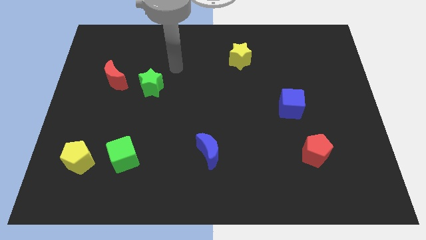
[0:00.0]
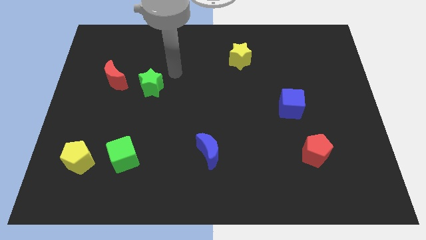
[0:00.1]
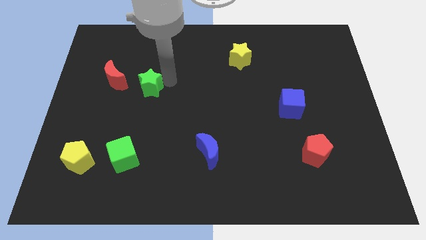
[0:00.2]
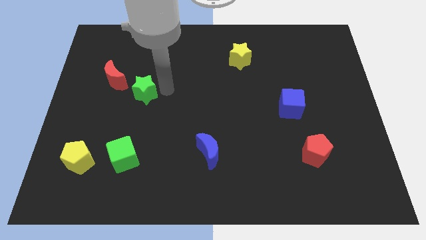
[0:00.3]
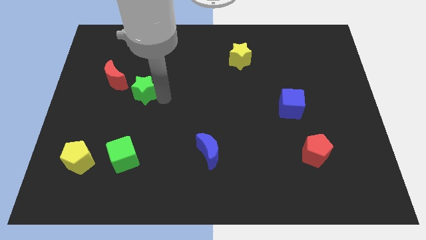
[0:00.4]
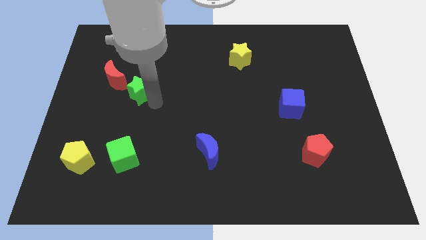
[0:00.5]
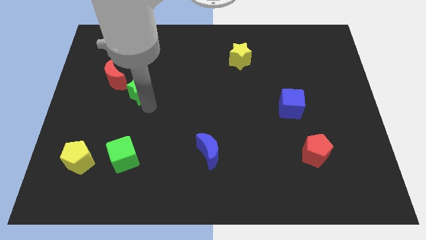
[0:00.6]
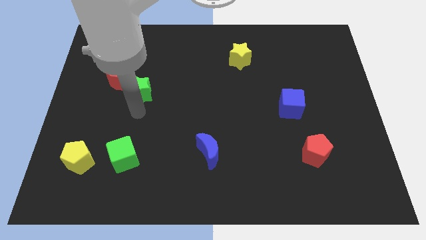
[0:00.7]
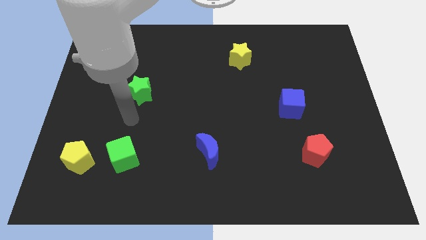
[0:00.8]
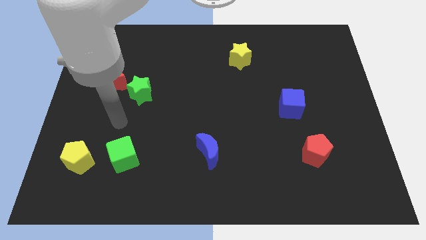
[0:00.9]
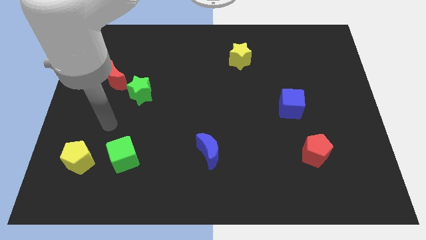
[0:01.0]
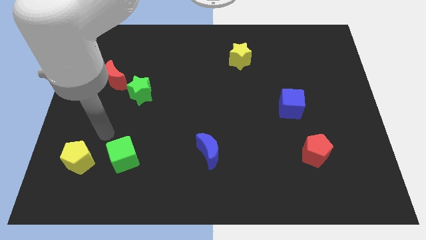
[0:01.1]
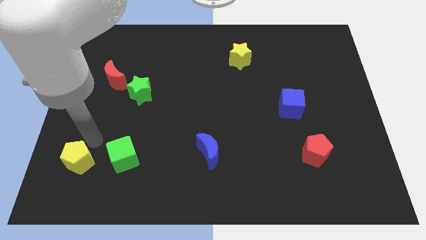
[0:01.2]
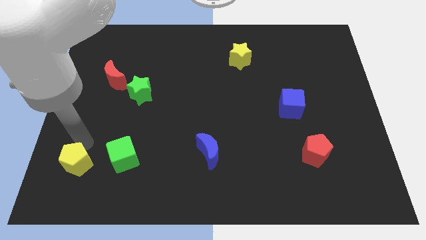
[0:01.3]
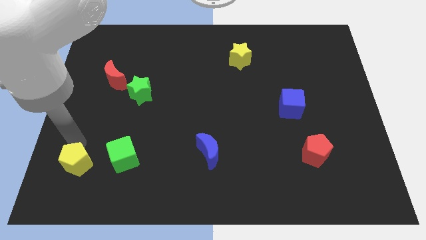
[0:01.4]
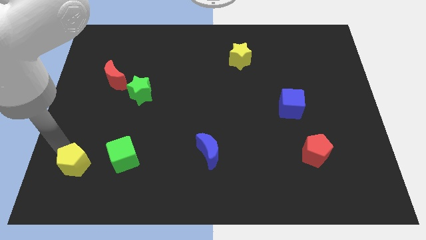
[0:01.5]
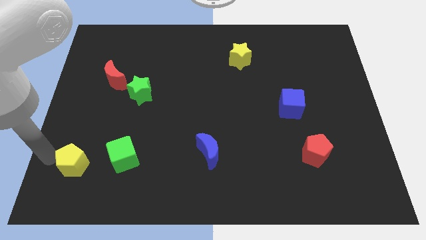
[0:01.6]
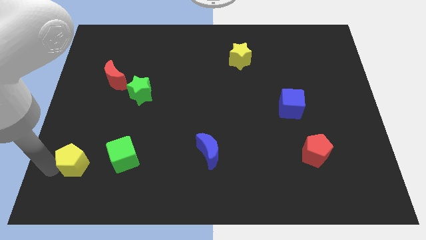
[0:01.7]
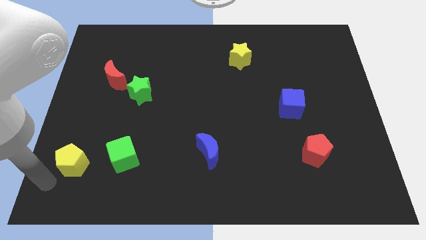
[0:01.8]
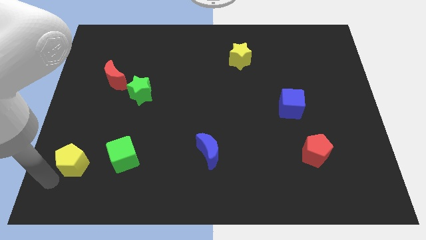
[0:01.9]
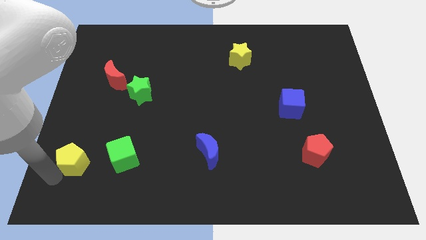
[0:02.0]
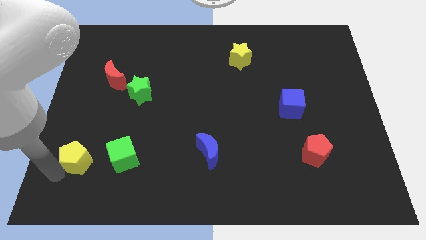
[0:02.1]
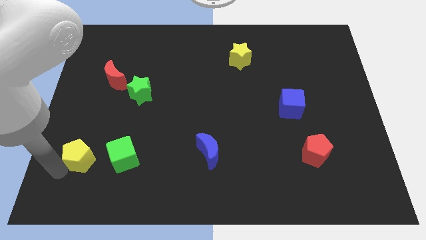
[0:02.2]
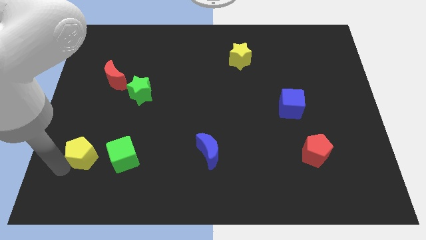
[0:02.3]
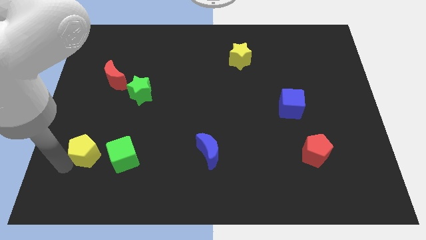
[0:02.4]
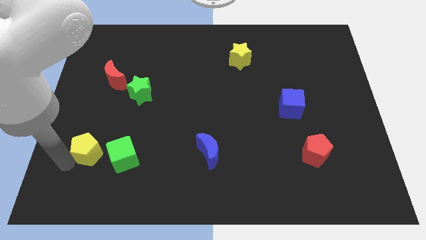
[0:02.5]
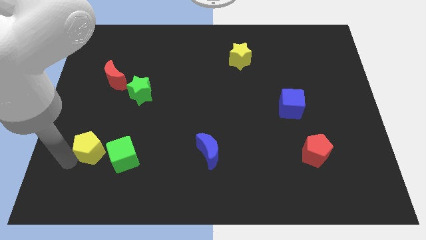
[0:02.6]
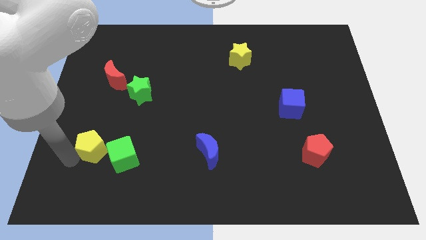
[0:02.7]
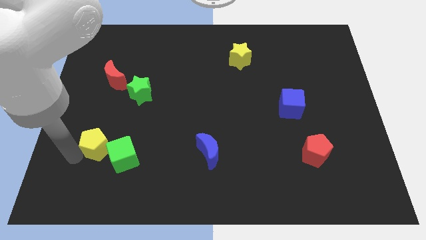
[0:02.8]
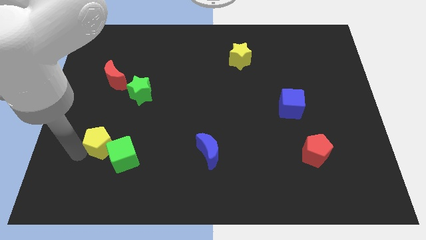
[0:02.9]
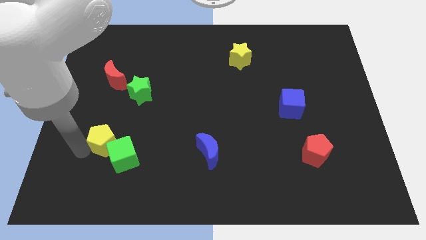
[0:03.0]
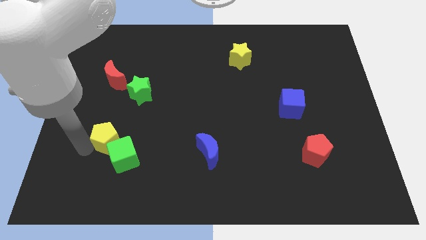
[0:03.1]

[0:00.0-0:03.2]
move the yellow pentagon diagonally up and to the right a little

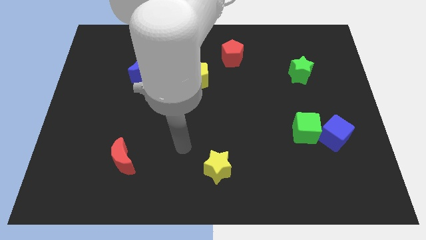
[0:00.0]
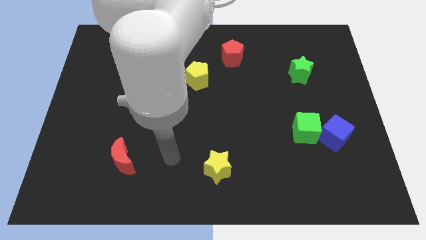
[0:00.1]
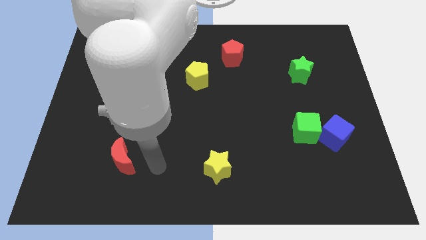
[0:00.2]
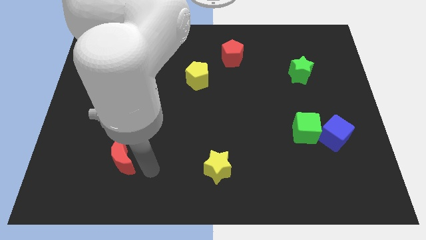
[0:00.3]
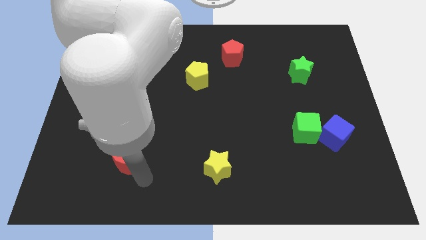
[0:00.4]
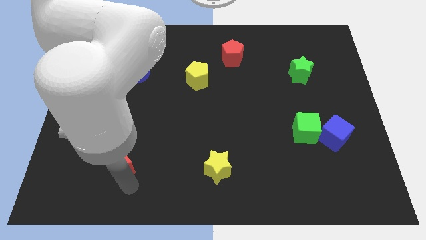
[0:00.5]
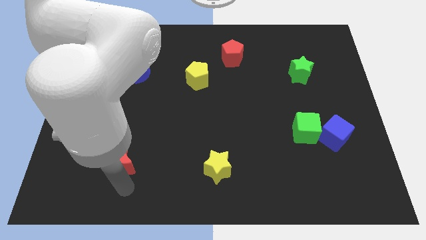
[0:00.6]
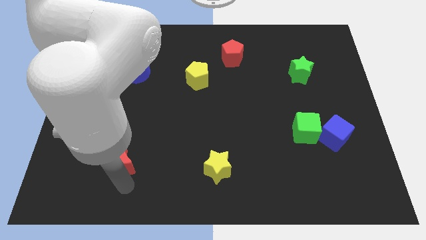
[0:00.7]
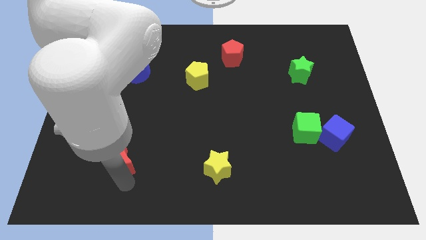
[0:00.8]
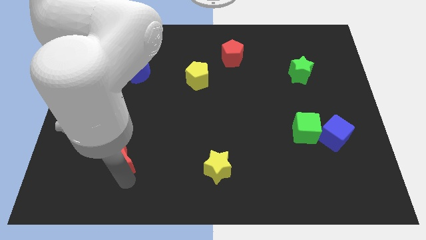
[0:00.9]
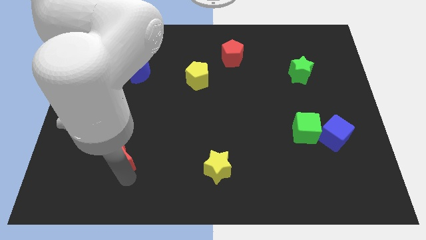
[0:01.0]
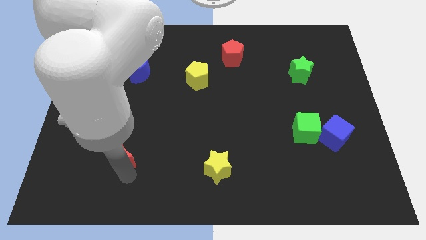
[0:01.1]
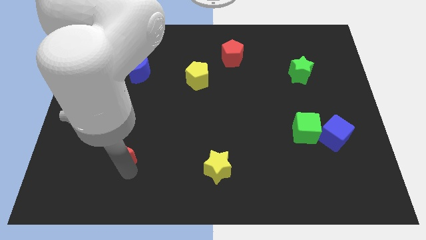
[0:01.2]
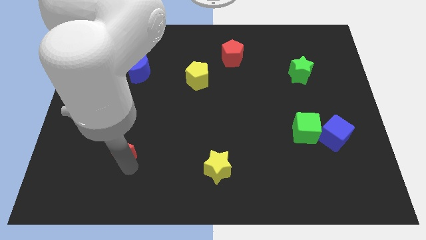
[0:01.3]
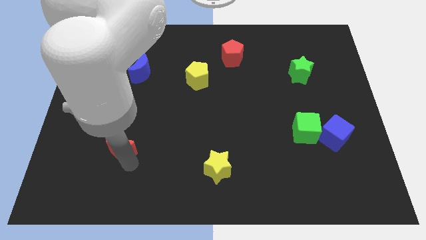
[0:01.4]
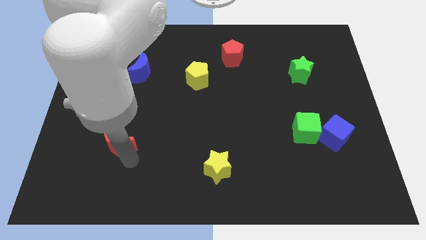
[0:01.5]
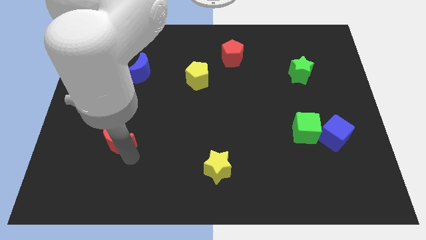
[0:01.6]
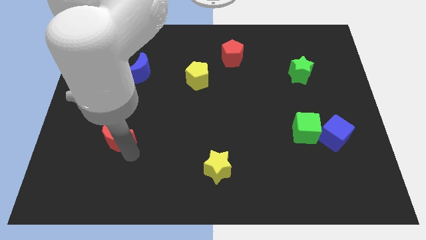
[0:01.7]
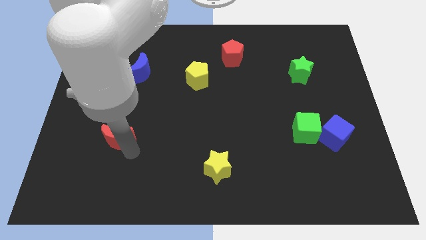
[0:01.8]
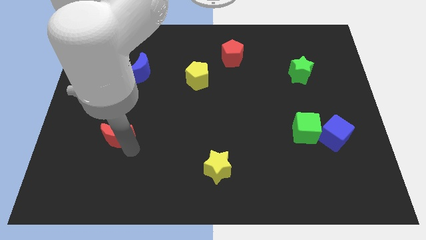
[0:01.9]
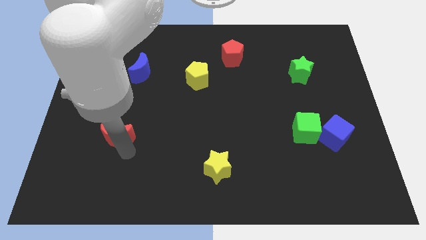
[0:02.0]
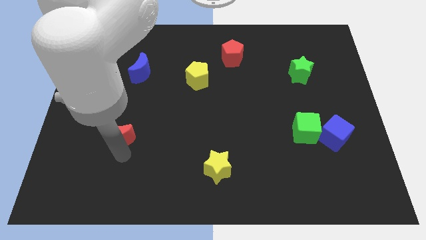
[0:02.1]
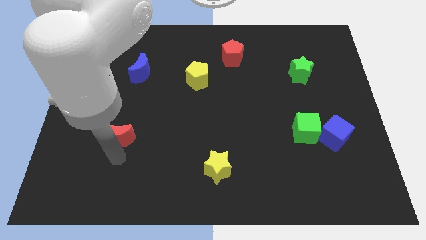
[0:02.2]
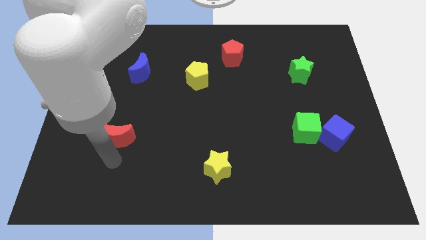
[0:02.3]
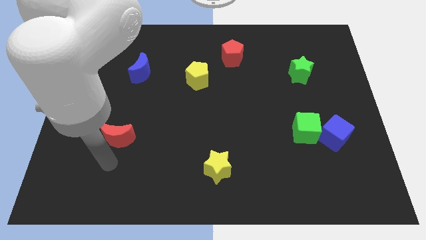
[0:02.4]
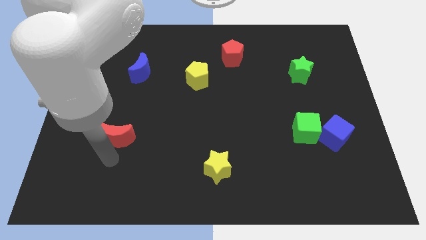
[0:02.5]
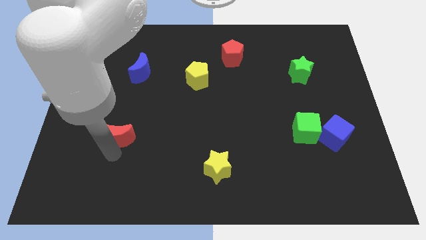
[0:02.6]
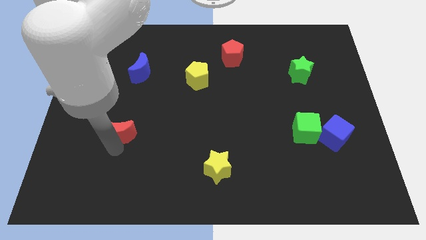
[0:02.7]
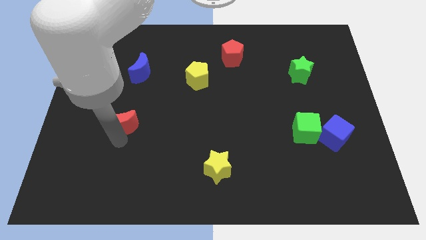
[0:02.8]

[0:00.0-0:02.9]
slightly move the red moon upwards

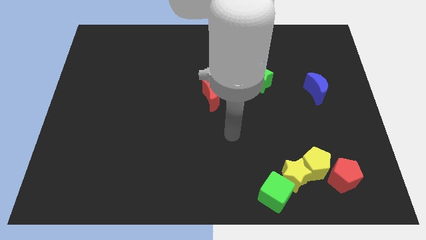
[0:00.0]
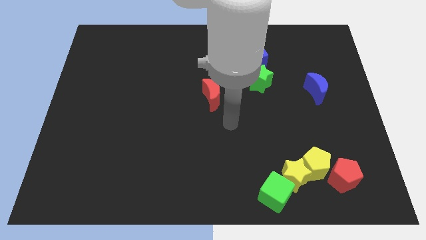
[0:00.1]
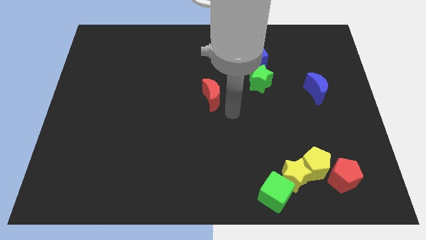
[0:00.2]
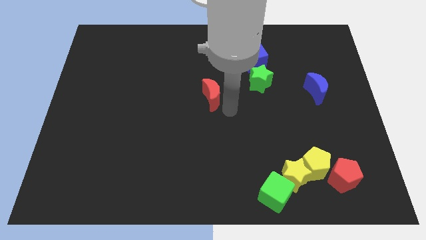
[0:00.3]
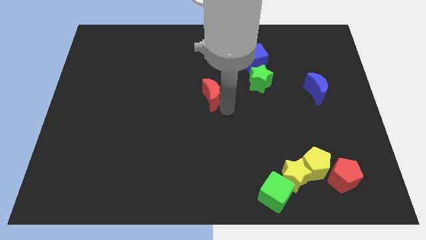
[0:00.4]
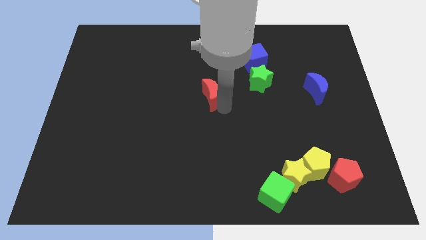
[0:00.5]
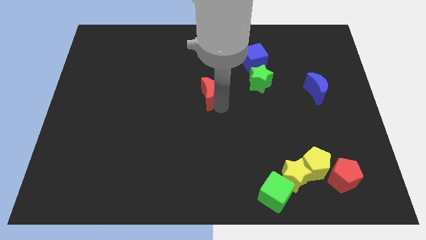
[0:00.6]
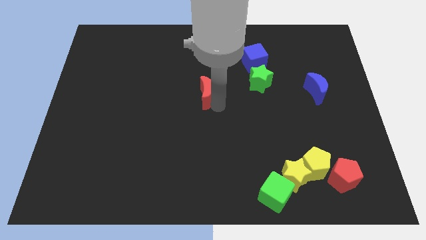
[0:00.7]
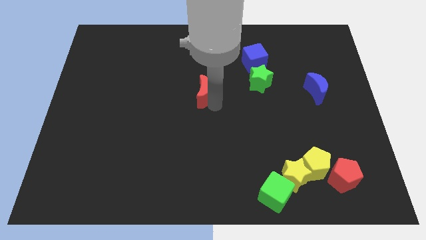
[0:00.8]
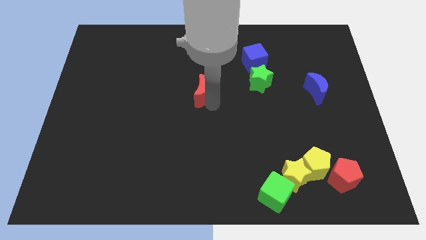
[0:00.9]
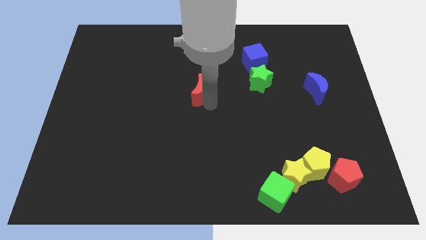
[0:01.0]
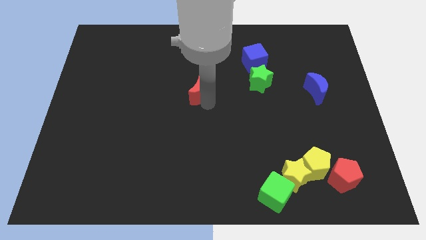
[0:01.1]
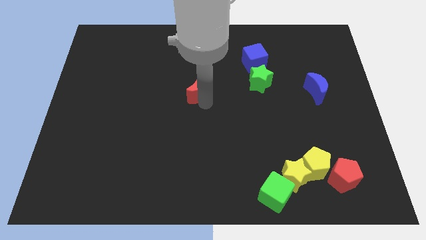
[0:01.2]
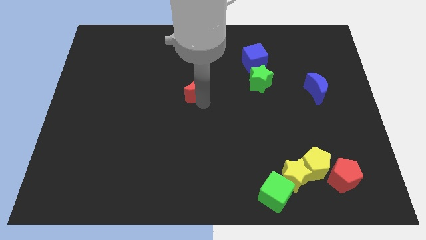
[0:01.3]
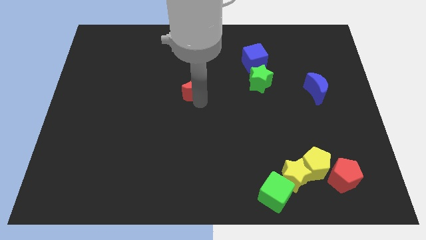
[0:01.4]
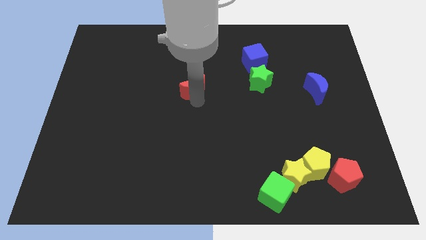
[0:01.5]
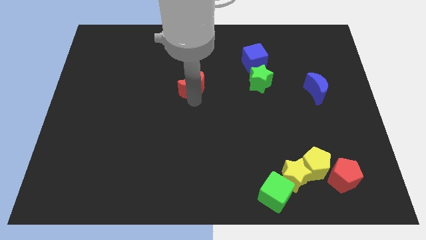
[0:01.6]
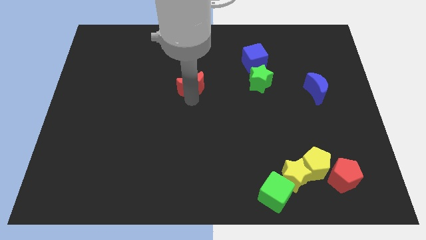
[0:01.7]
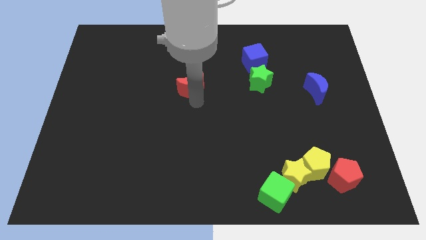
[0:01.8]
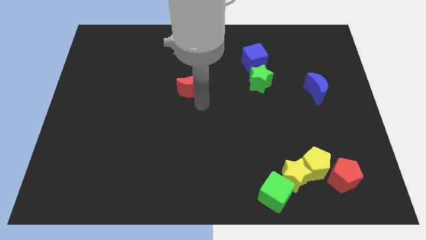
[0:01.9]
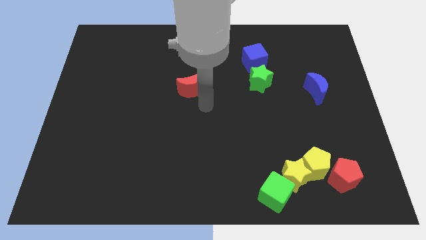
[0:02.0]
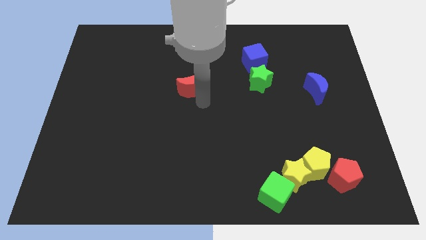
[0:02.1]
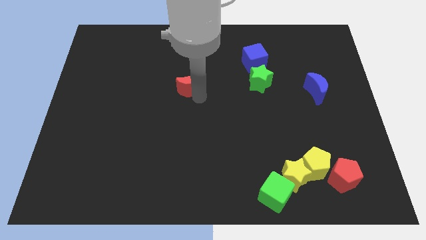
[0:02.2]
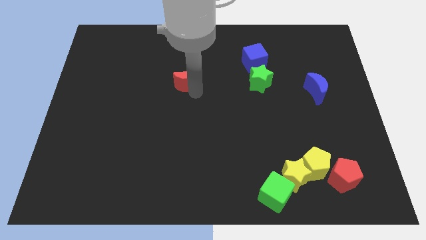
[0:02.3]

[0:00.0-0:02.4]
slightly push the red moon upwards and to the left
